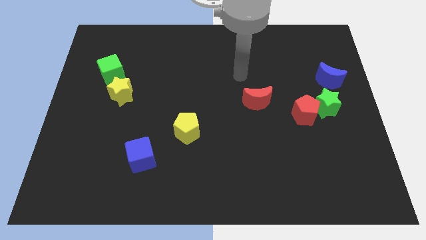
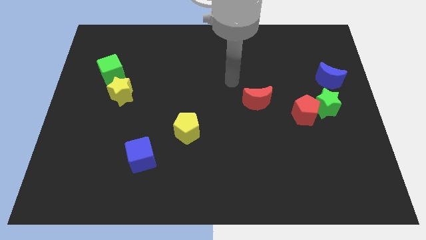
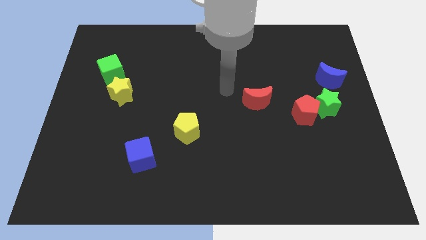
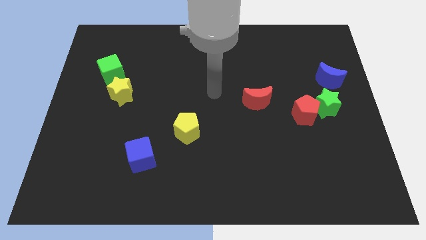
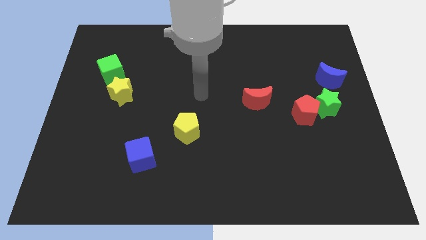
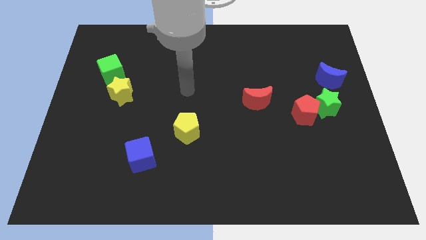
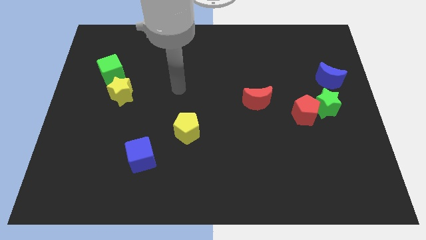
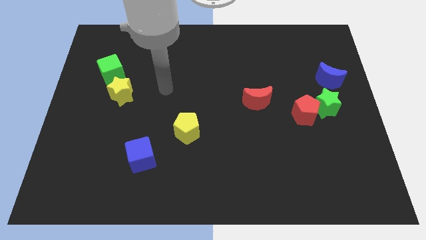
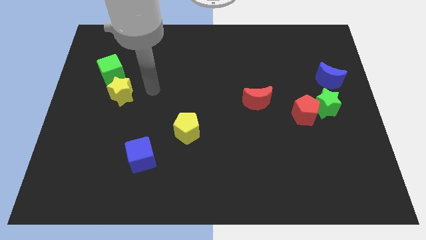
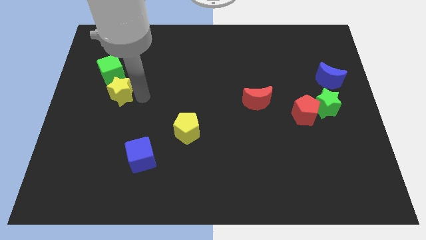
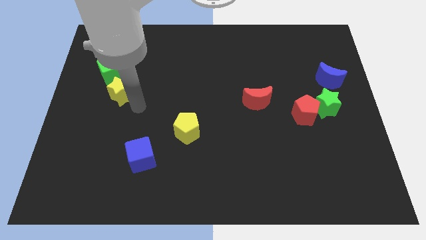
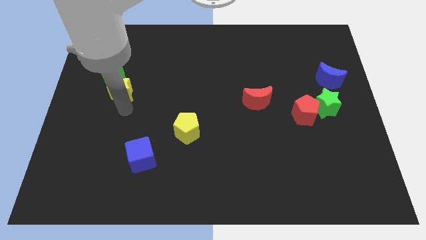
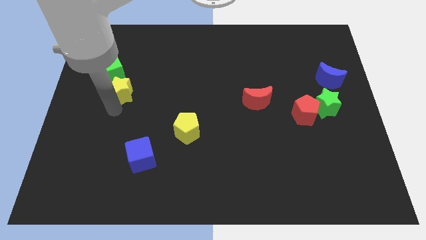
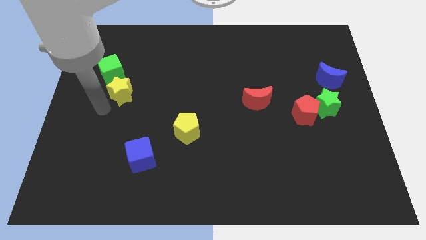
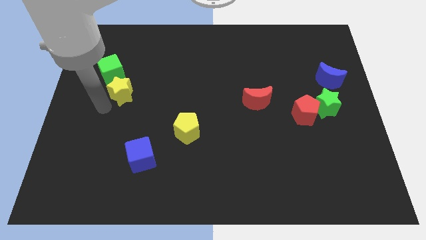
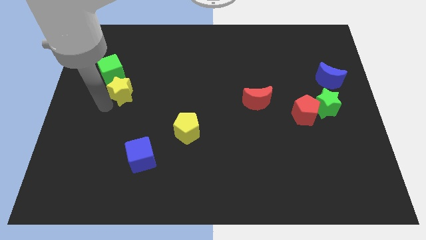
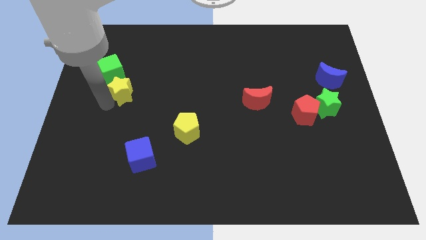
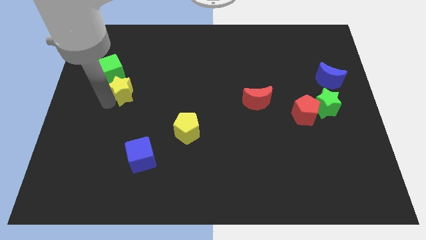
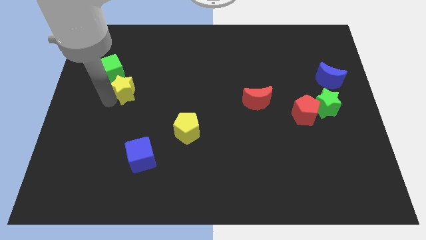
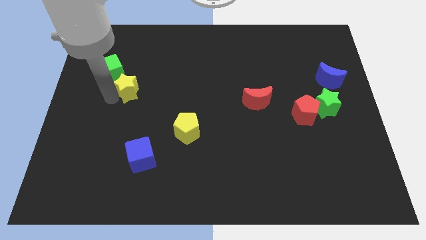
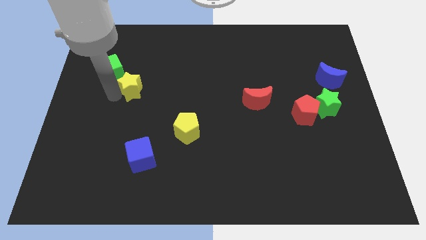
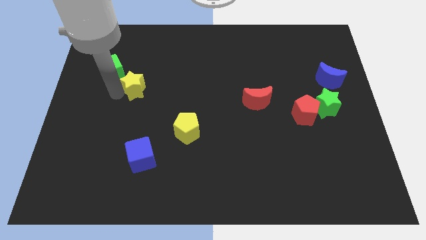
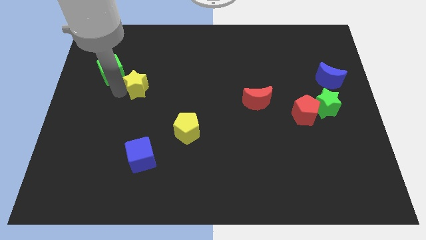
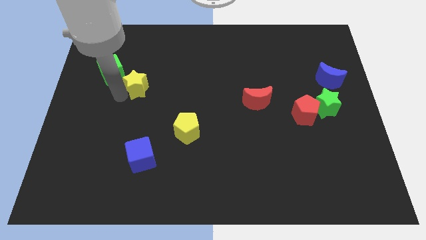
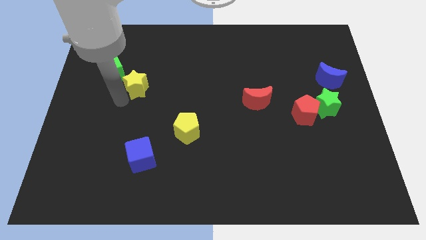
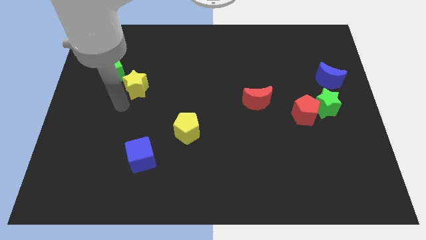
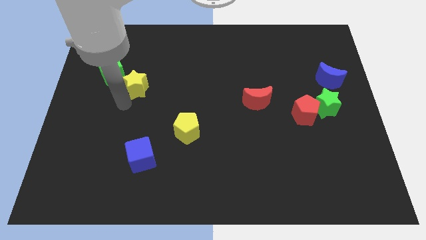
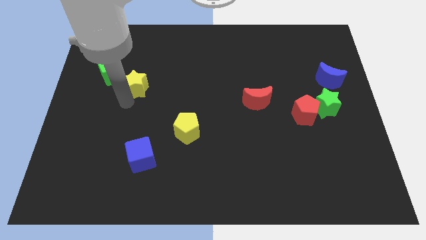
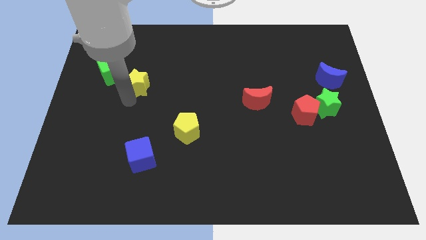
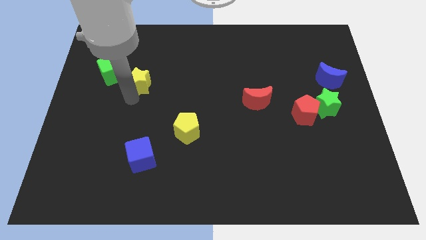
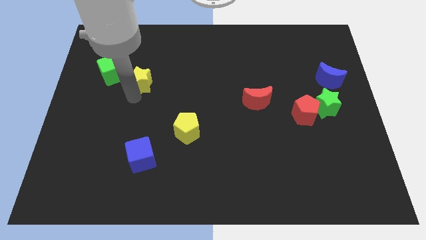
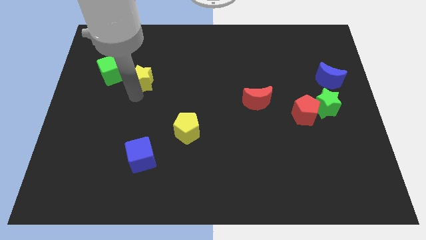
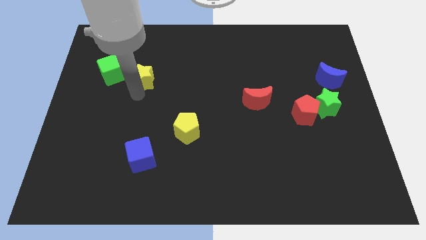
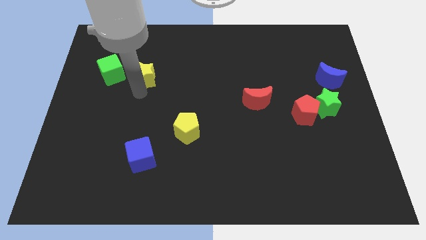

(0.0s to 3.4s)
slightly slide the yellow star diagonally upwards and to the right

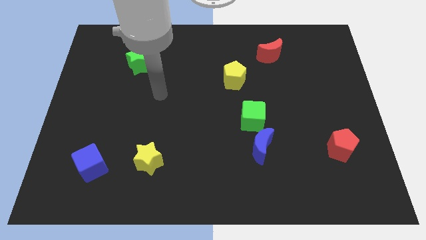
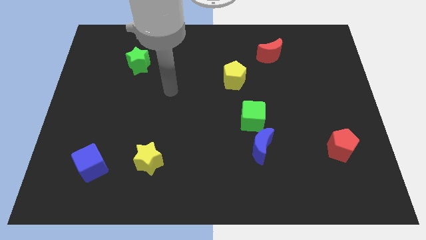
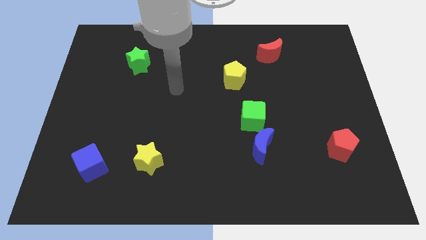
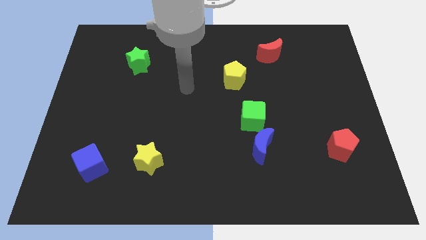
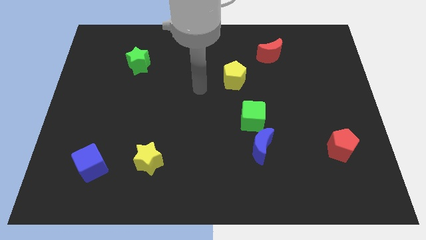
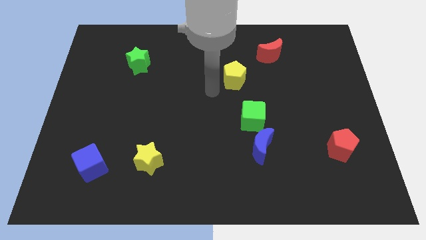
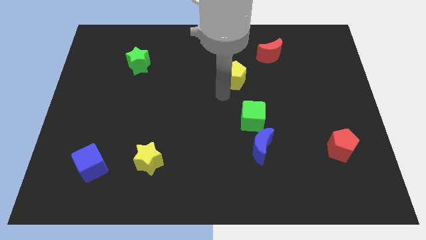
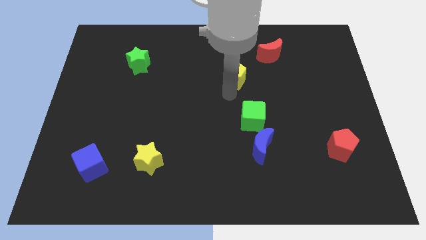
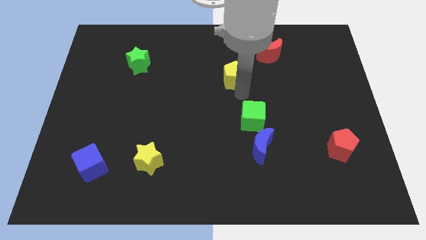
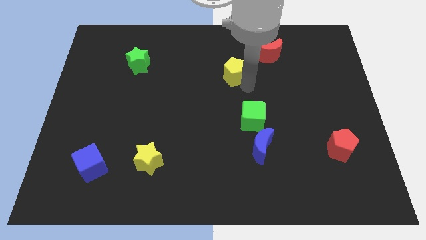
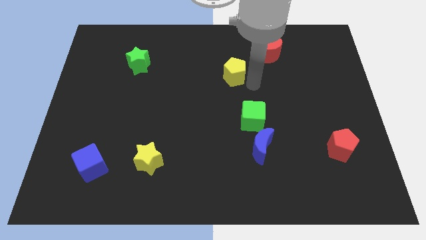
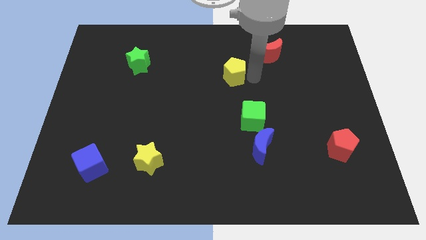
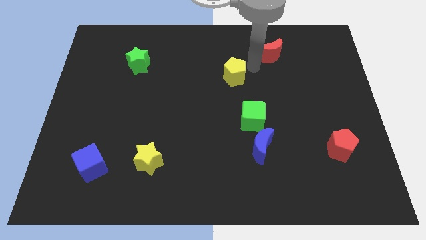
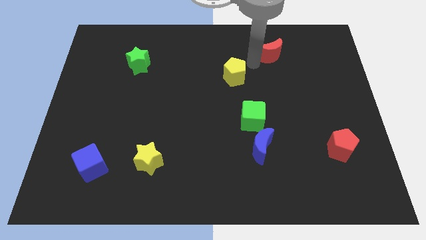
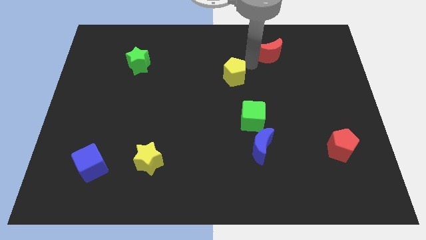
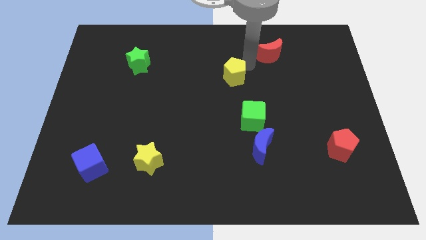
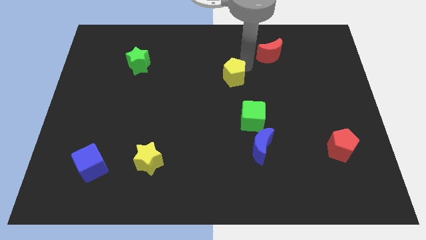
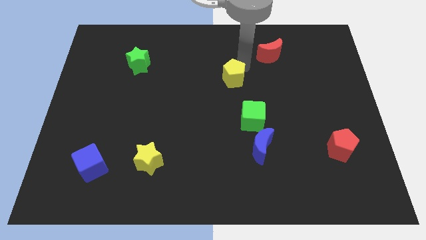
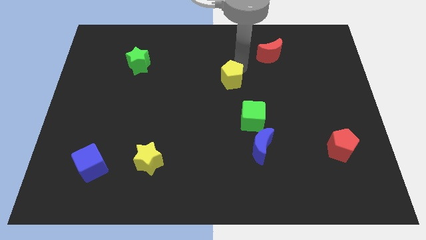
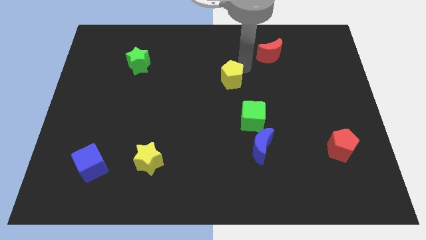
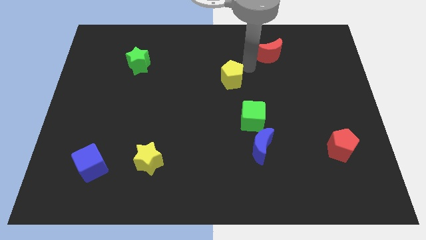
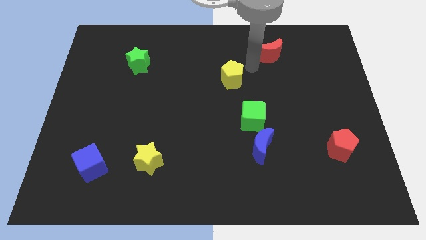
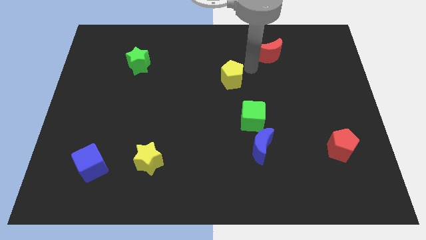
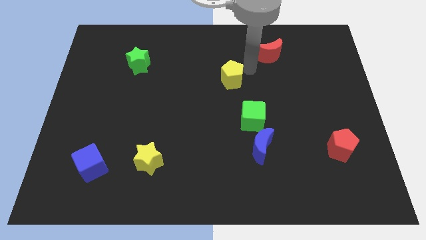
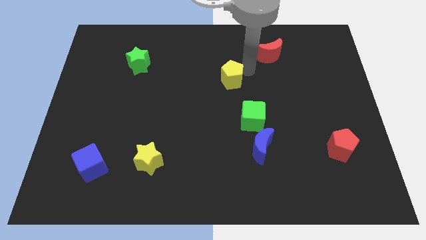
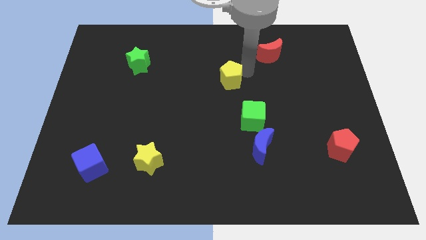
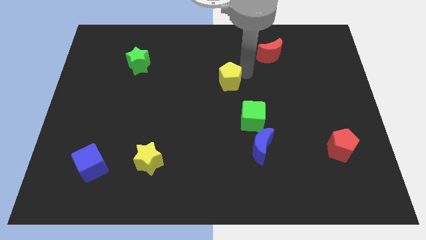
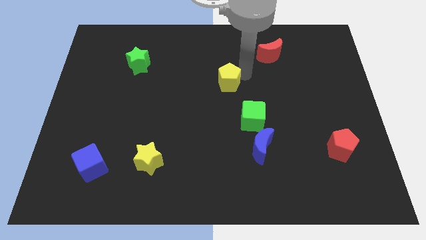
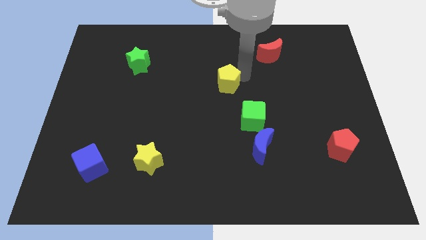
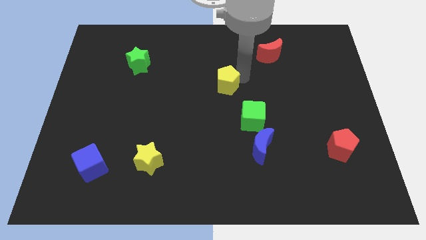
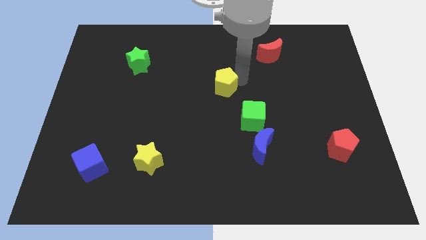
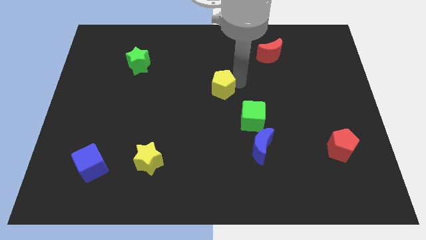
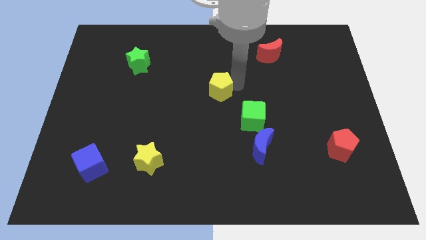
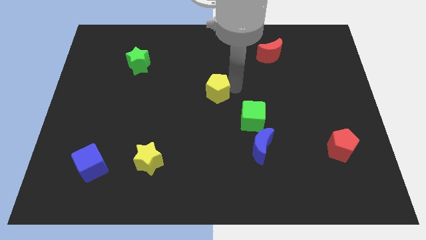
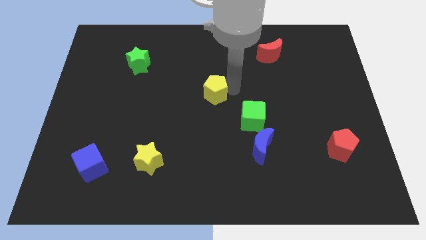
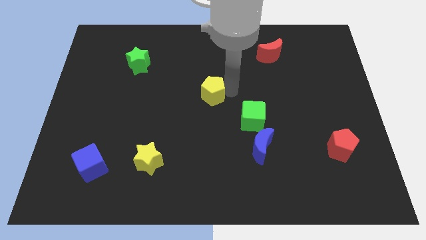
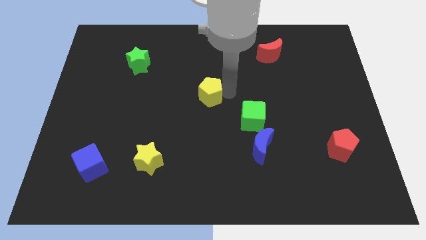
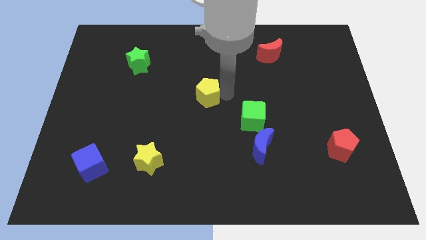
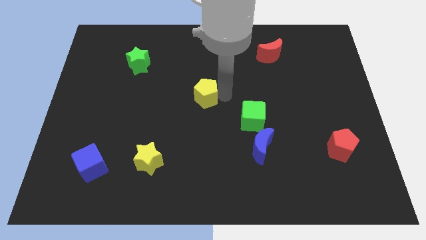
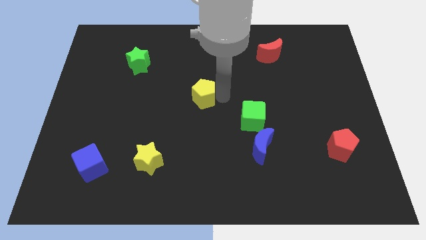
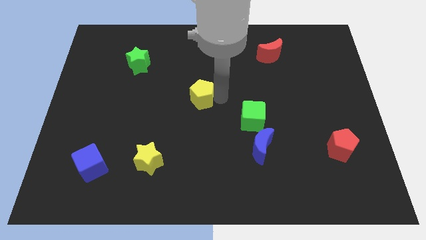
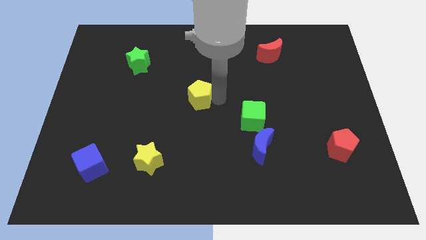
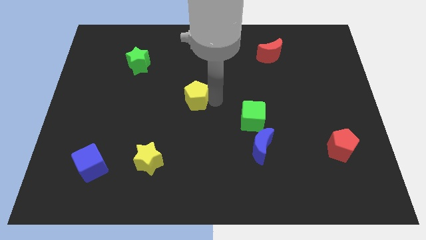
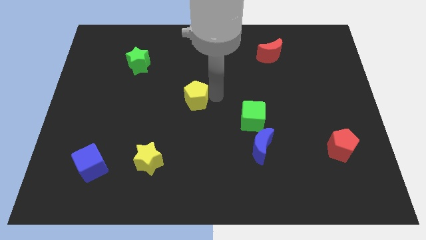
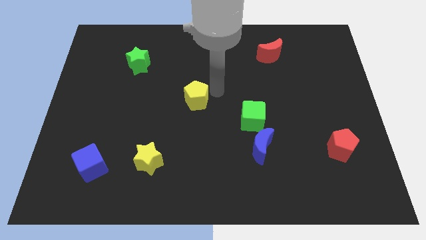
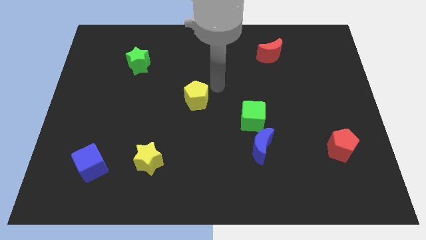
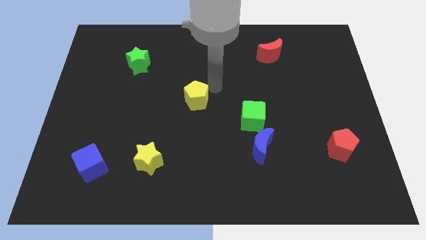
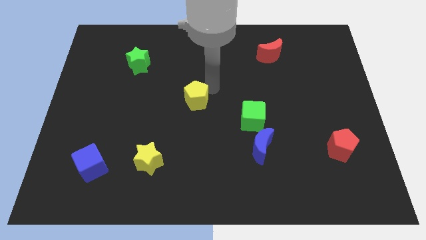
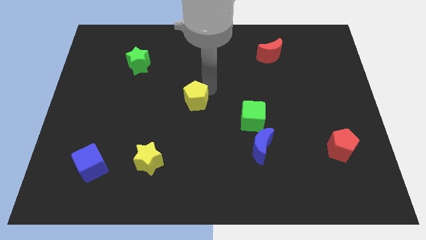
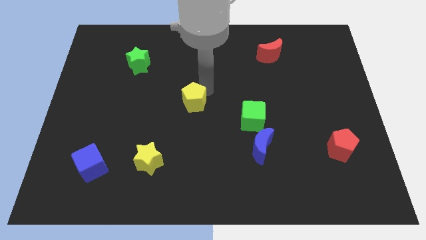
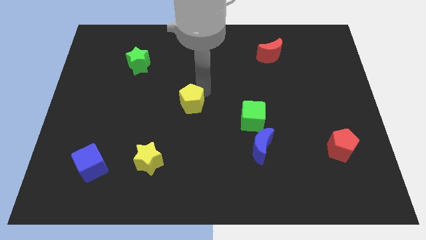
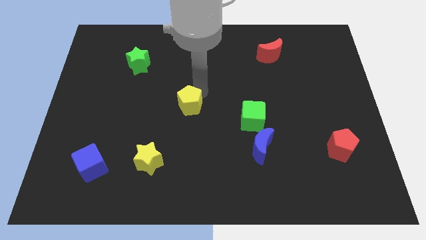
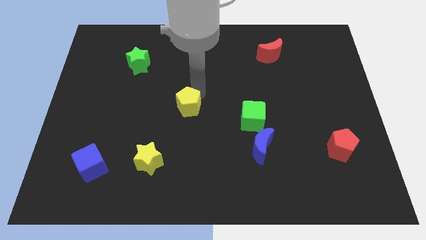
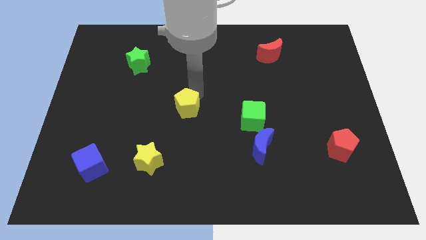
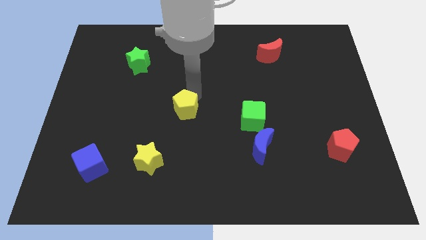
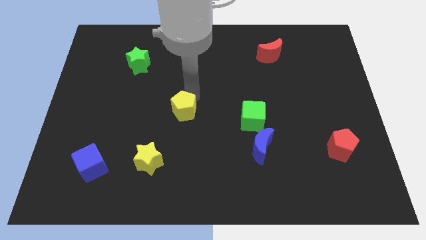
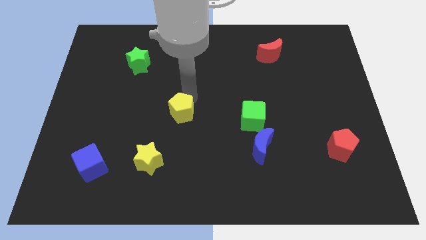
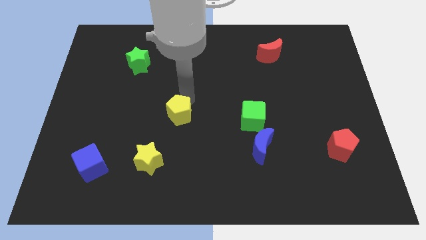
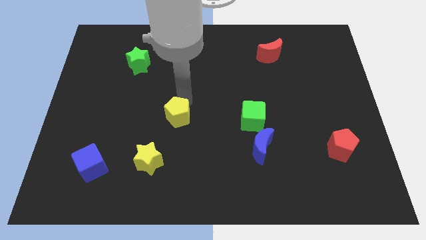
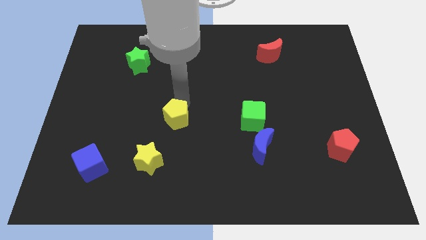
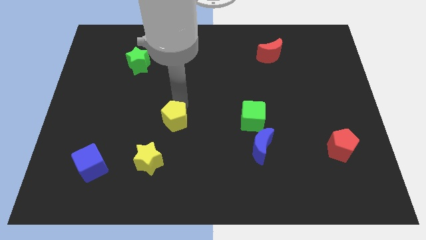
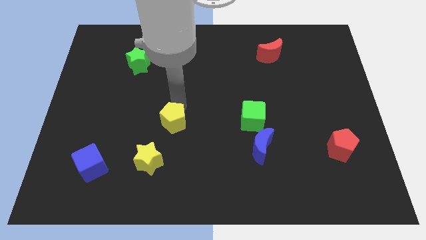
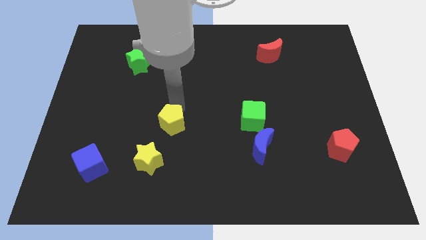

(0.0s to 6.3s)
slide the yellow pentagon downwards and then to the left
